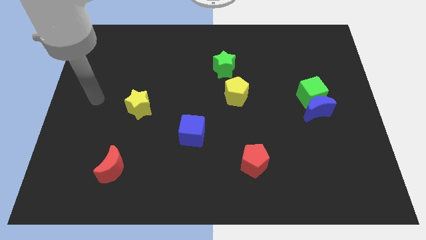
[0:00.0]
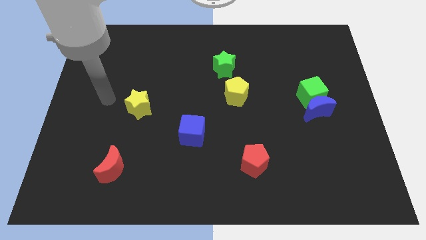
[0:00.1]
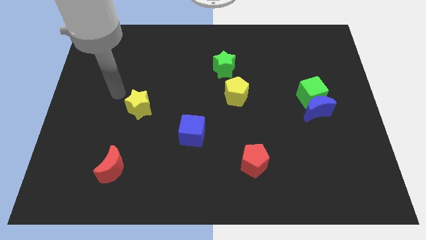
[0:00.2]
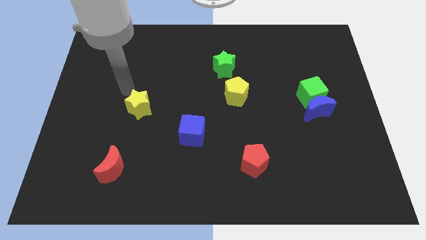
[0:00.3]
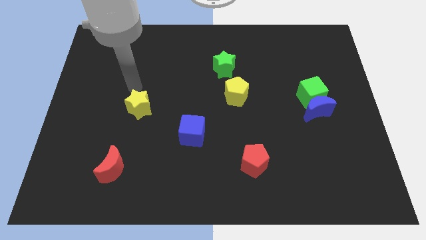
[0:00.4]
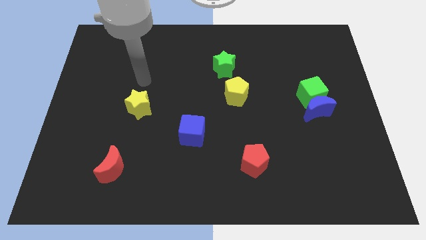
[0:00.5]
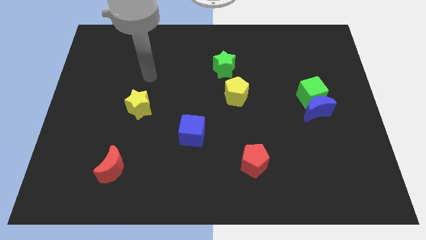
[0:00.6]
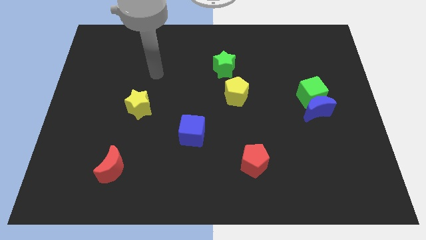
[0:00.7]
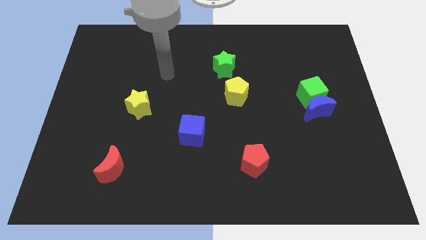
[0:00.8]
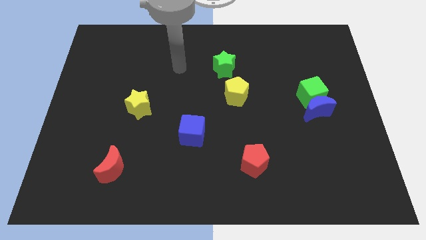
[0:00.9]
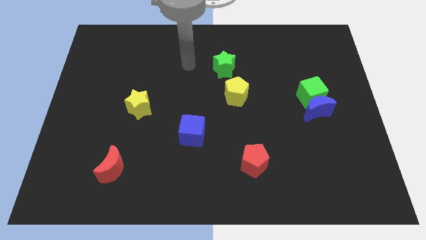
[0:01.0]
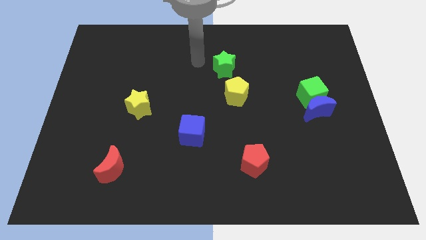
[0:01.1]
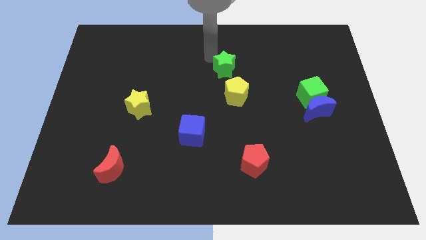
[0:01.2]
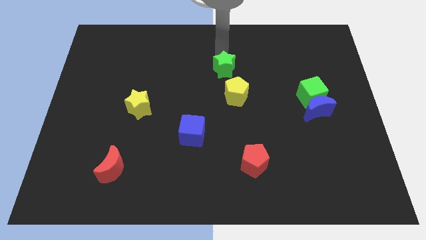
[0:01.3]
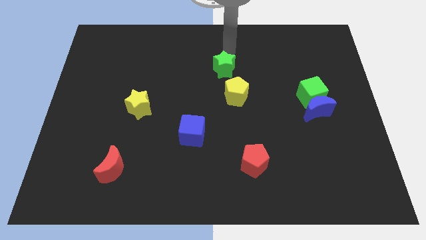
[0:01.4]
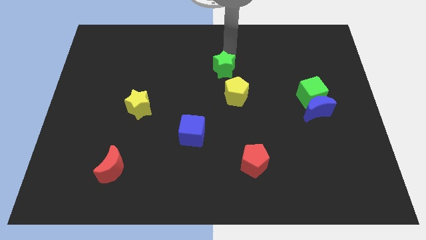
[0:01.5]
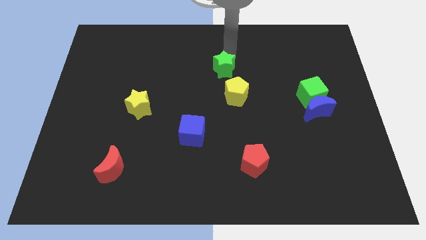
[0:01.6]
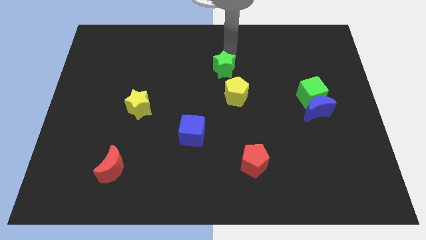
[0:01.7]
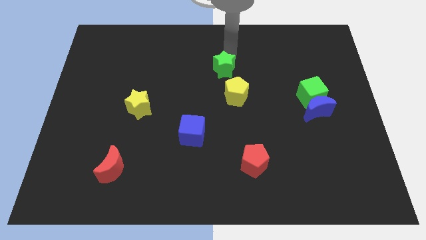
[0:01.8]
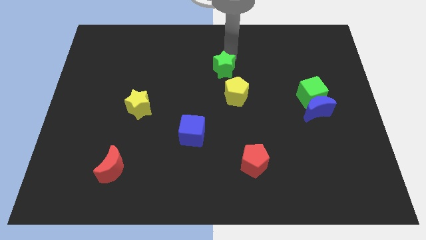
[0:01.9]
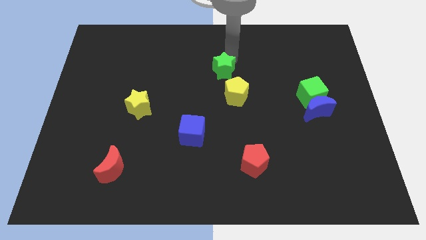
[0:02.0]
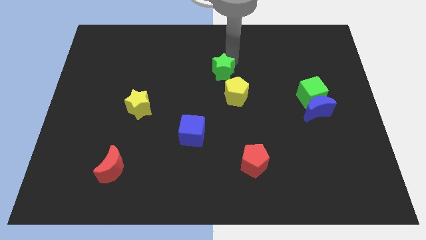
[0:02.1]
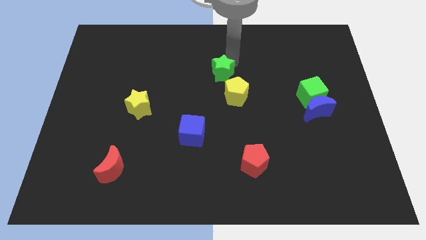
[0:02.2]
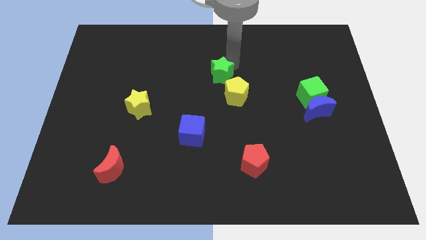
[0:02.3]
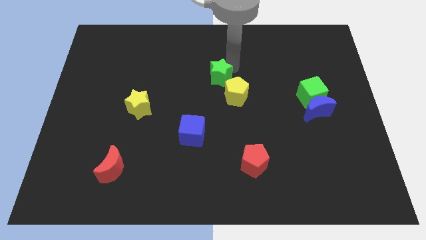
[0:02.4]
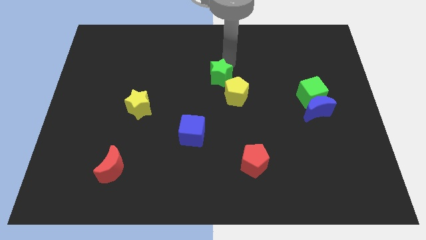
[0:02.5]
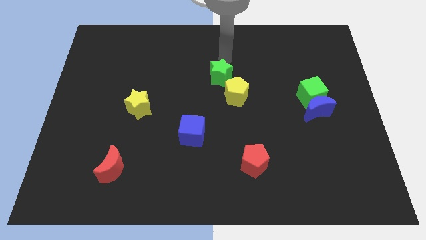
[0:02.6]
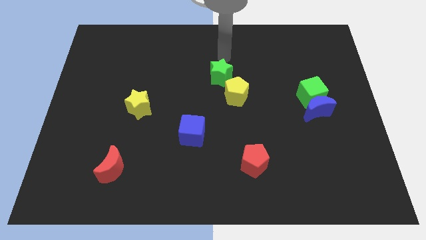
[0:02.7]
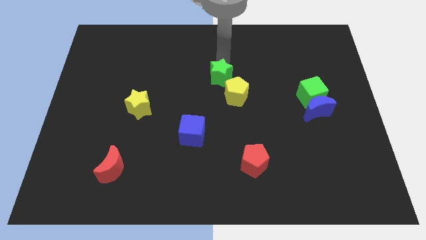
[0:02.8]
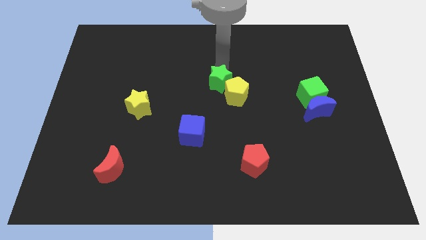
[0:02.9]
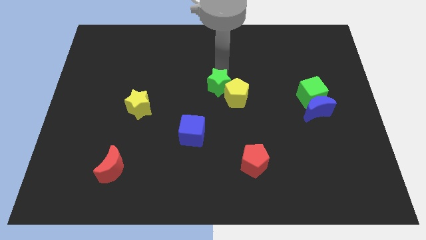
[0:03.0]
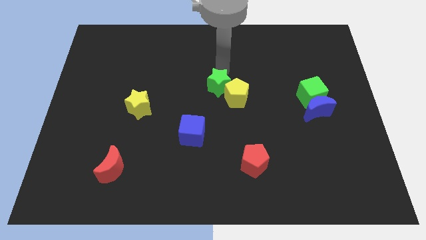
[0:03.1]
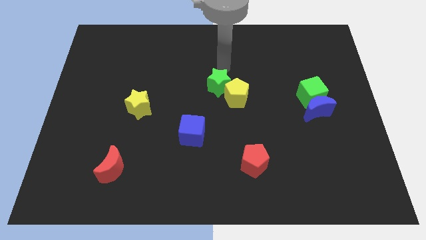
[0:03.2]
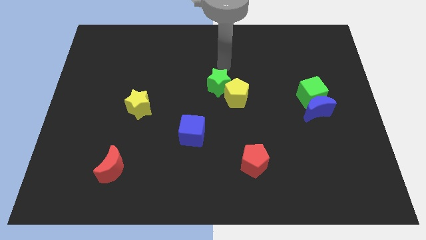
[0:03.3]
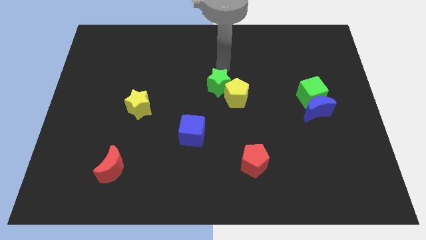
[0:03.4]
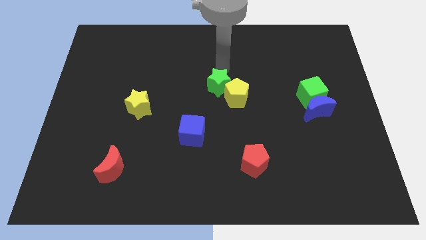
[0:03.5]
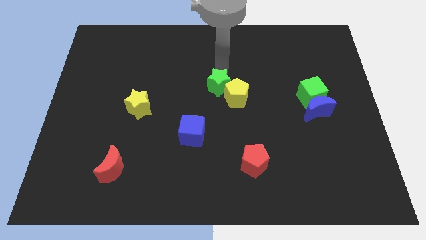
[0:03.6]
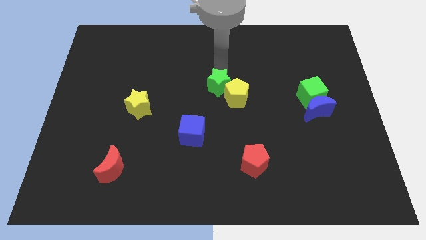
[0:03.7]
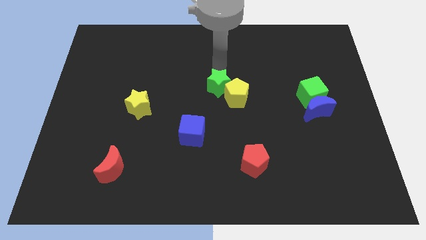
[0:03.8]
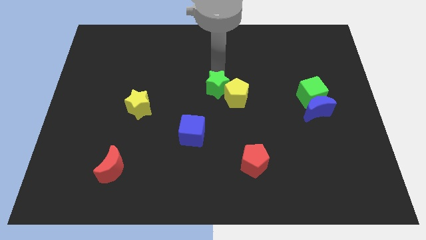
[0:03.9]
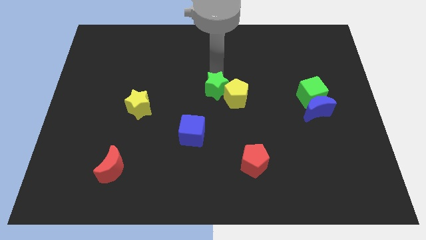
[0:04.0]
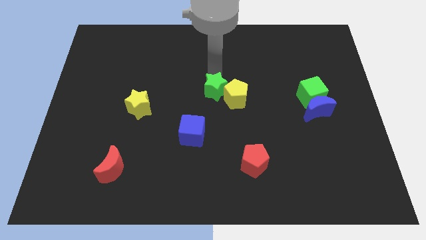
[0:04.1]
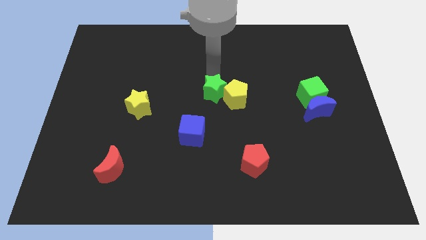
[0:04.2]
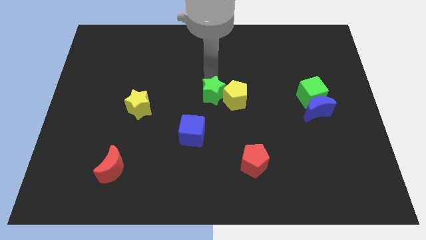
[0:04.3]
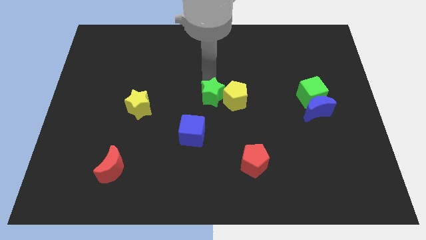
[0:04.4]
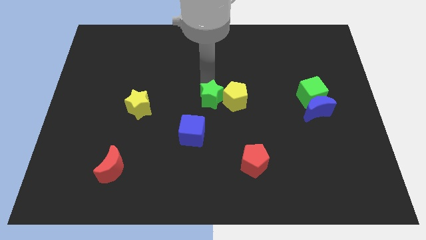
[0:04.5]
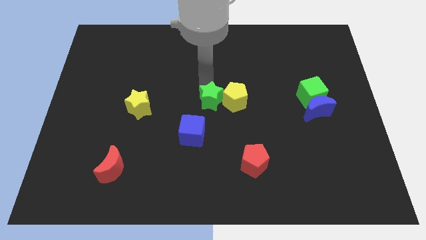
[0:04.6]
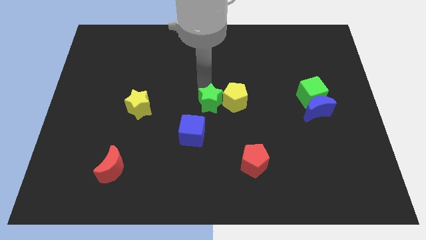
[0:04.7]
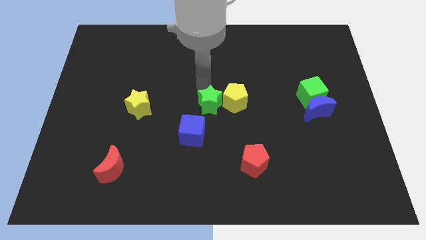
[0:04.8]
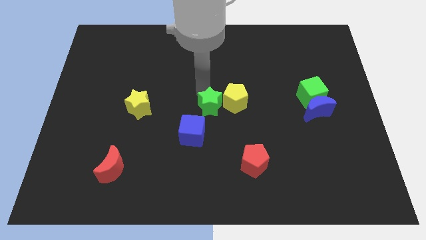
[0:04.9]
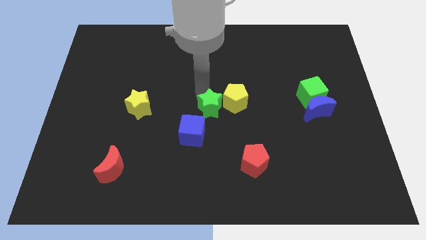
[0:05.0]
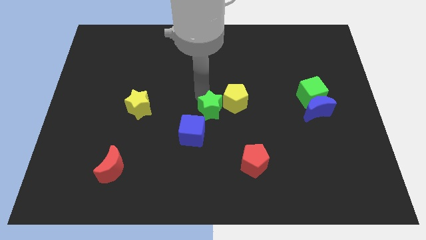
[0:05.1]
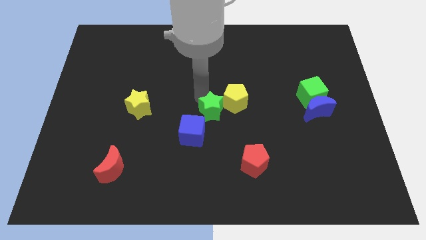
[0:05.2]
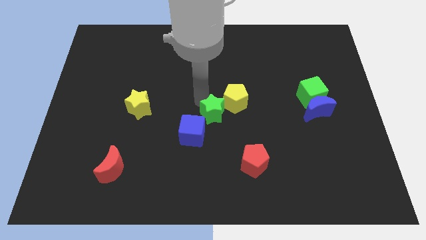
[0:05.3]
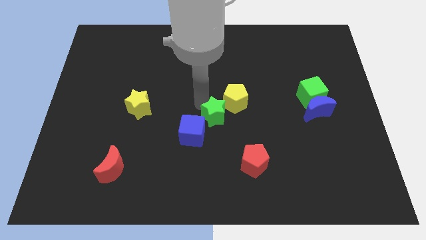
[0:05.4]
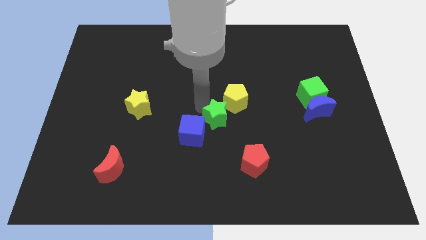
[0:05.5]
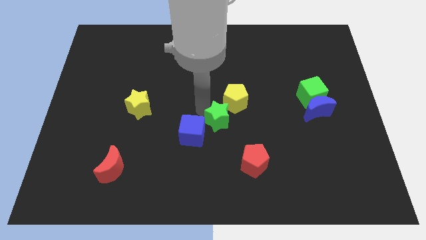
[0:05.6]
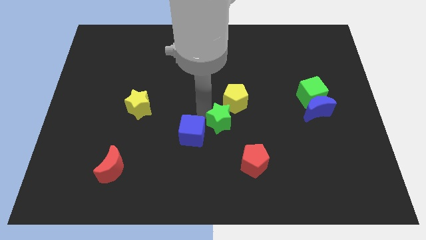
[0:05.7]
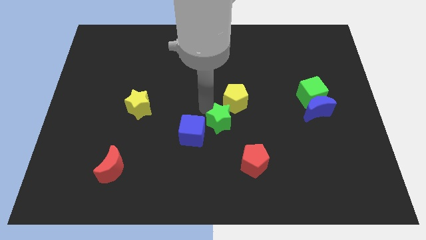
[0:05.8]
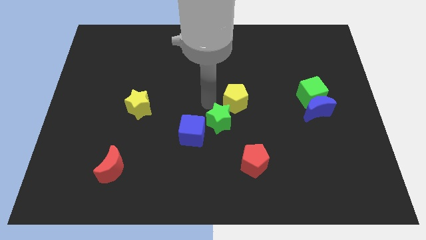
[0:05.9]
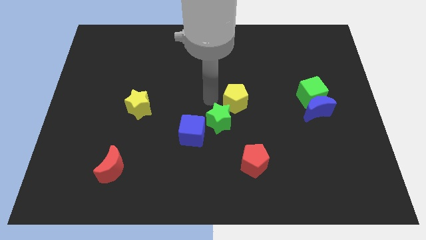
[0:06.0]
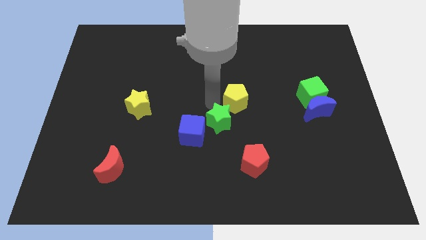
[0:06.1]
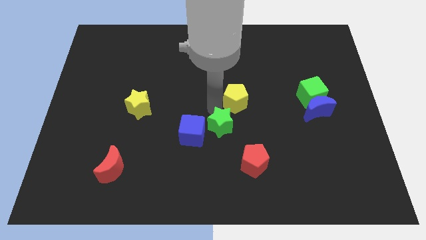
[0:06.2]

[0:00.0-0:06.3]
slide the green star to the top left side of the red pentagon
